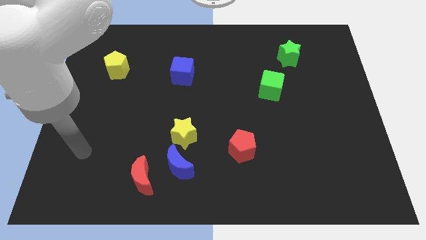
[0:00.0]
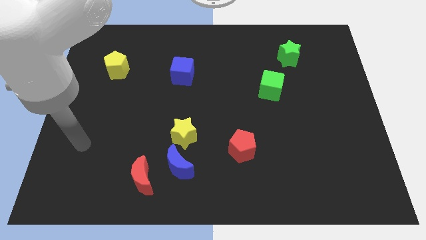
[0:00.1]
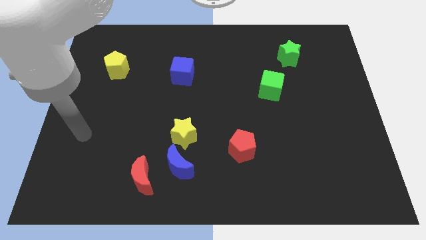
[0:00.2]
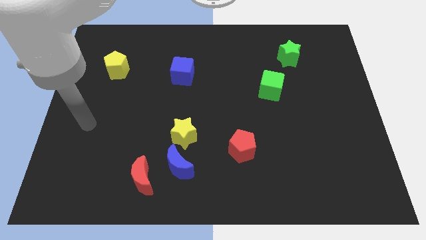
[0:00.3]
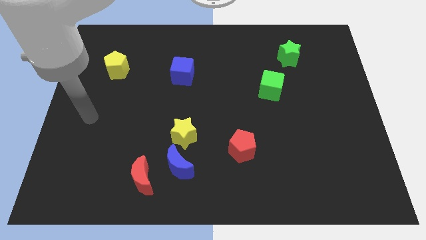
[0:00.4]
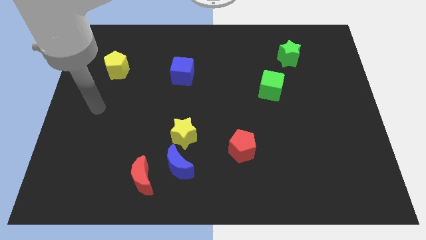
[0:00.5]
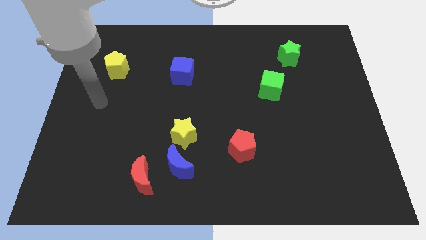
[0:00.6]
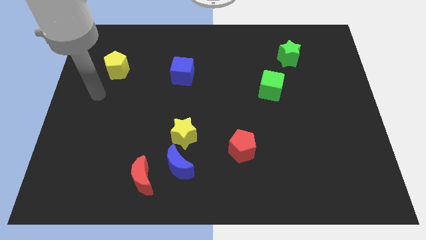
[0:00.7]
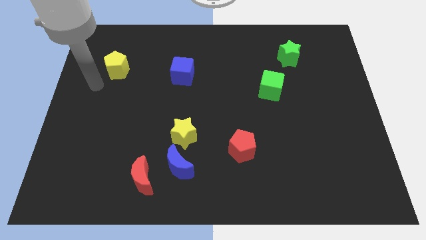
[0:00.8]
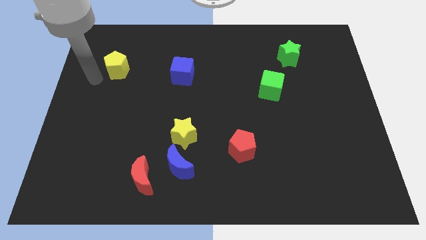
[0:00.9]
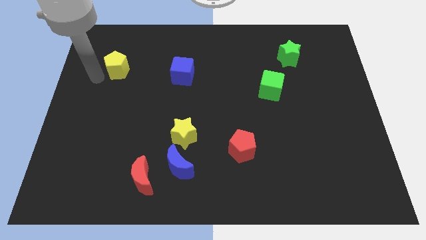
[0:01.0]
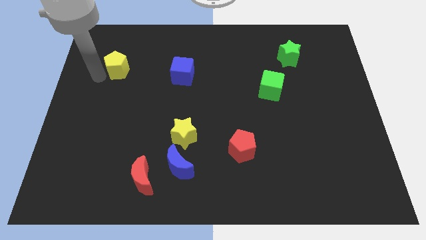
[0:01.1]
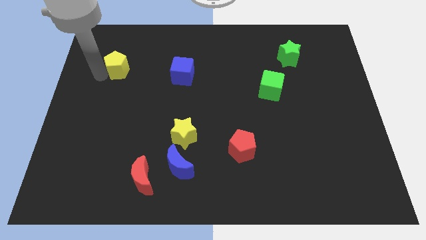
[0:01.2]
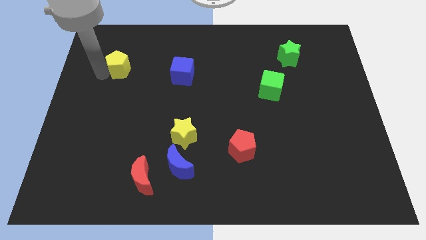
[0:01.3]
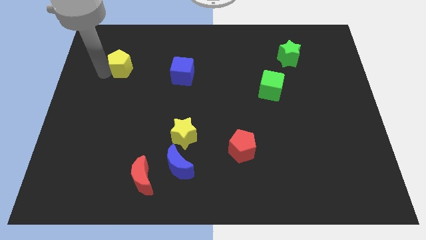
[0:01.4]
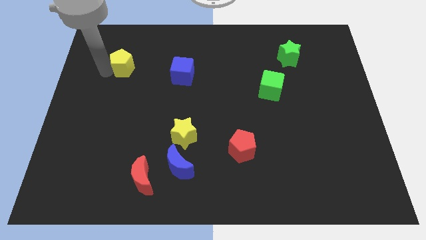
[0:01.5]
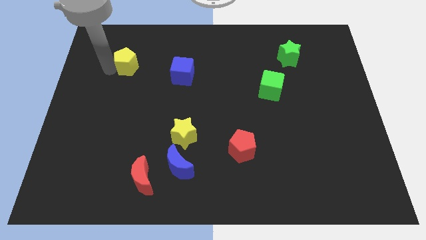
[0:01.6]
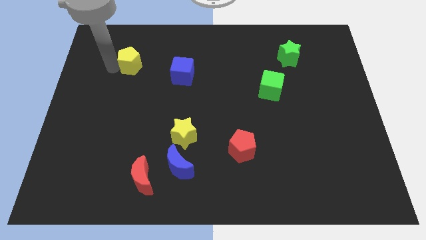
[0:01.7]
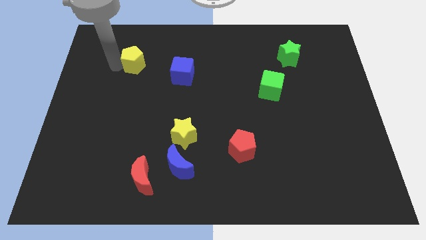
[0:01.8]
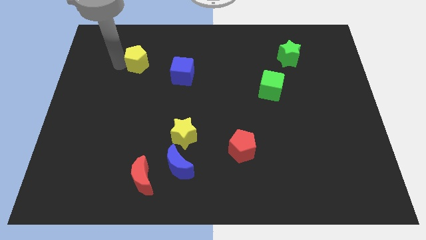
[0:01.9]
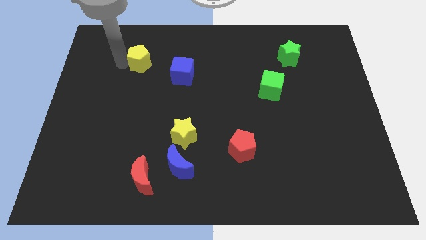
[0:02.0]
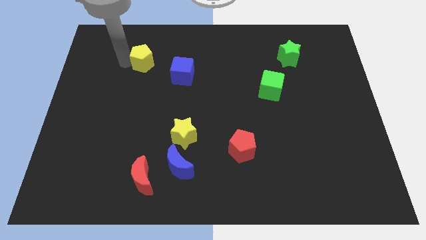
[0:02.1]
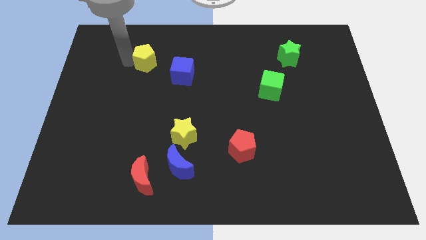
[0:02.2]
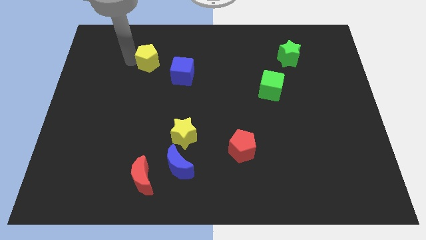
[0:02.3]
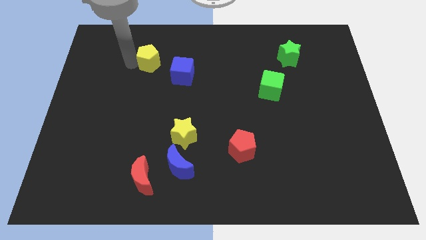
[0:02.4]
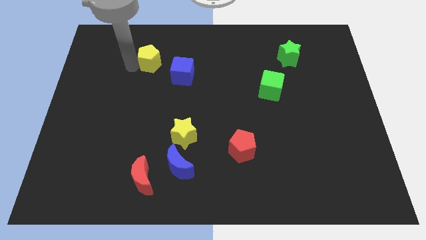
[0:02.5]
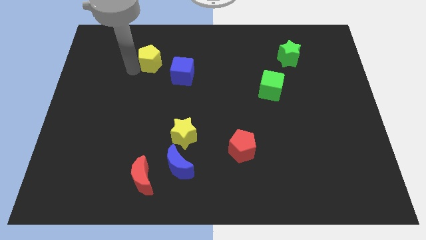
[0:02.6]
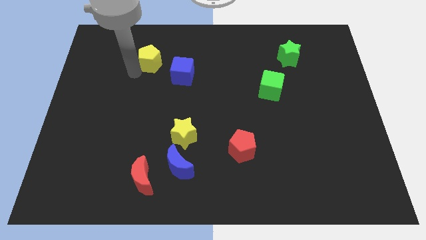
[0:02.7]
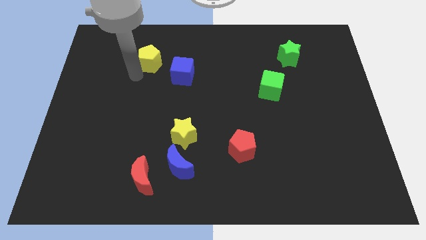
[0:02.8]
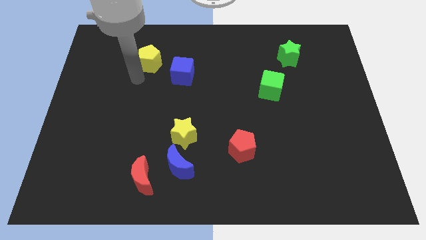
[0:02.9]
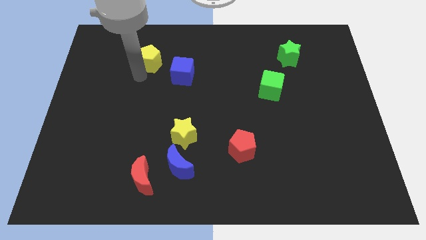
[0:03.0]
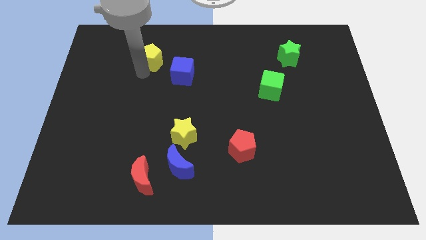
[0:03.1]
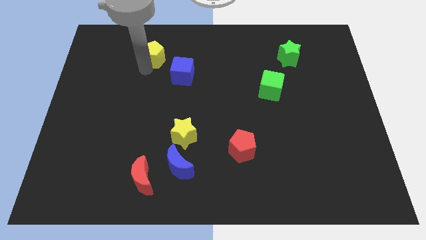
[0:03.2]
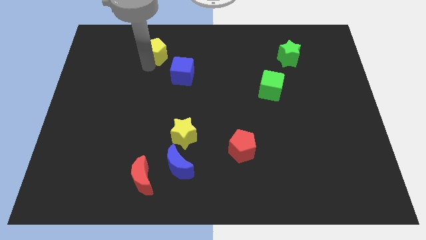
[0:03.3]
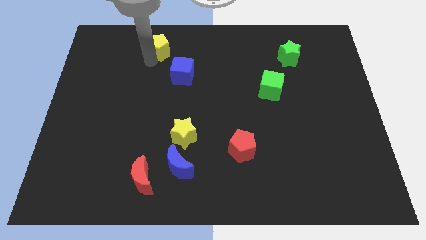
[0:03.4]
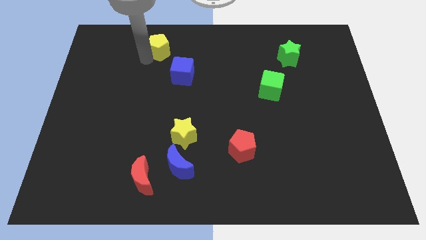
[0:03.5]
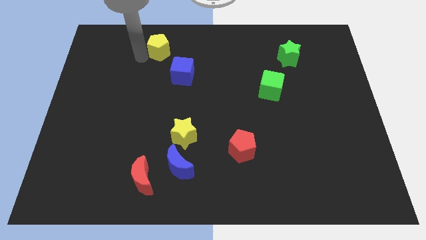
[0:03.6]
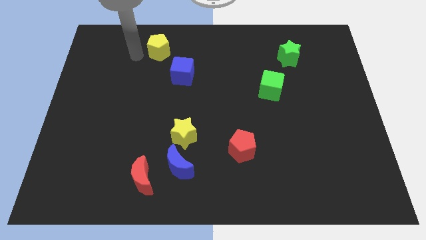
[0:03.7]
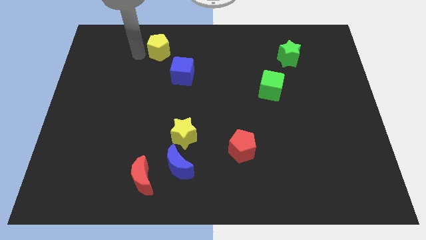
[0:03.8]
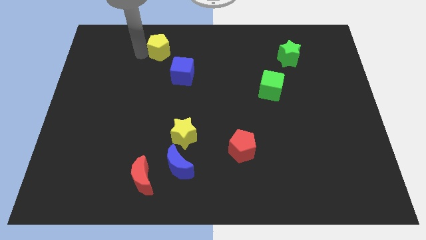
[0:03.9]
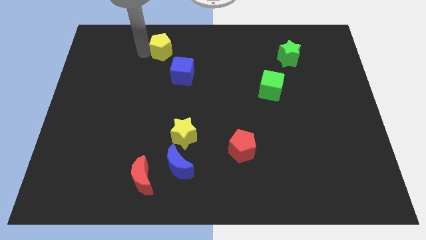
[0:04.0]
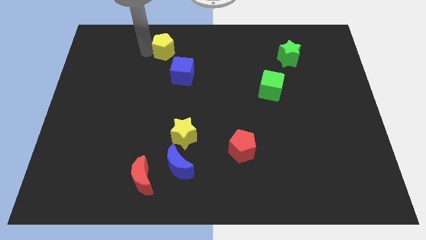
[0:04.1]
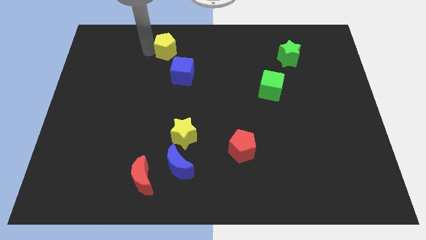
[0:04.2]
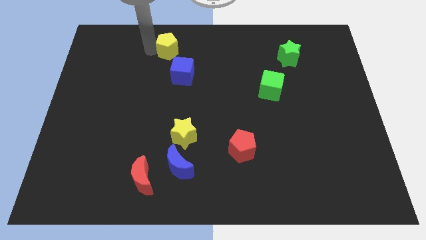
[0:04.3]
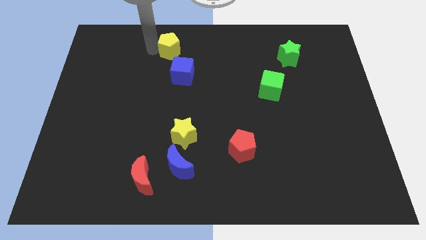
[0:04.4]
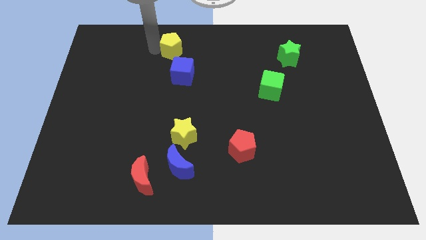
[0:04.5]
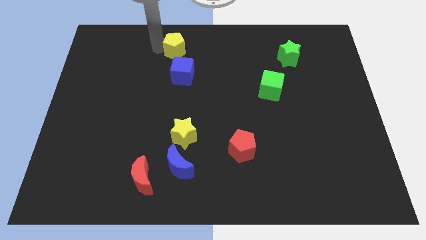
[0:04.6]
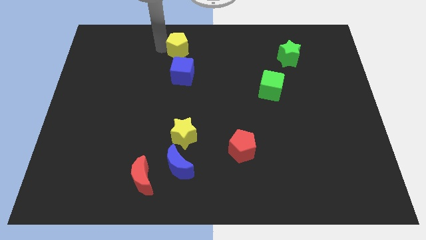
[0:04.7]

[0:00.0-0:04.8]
slide the yellow pentagon to the top side

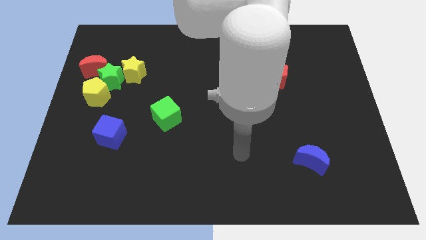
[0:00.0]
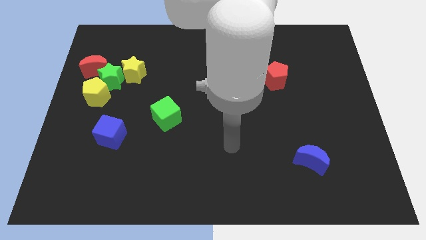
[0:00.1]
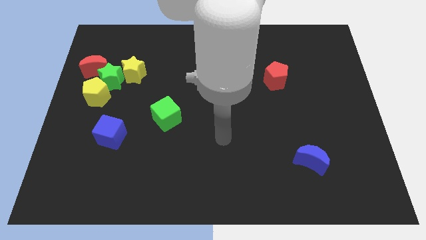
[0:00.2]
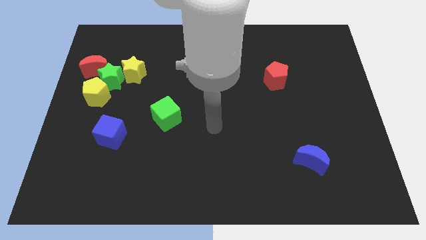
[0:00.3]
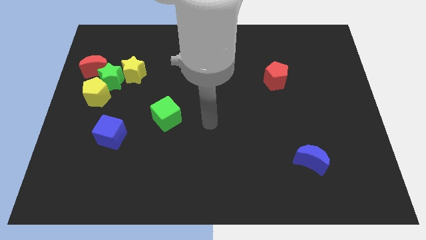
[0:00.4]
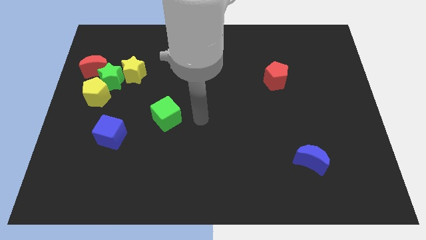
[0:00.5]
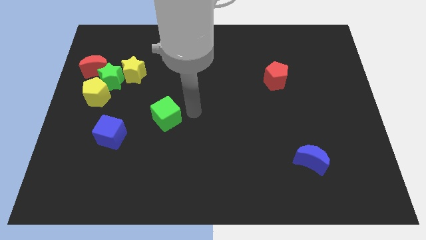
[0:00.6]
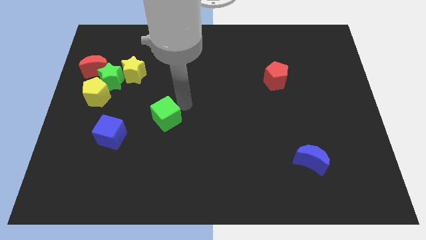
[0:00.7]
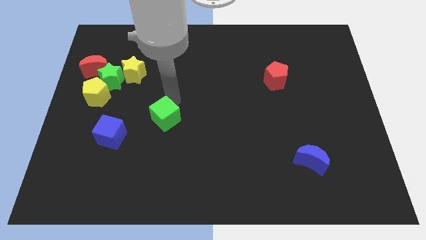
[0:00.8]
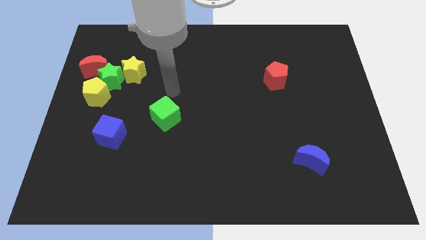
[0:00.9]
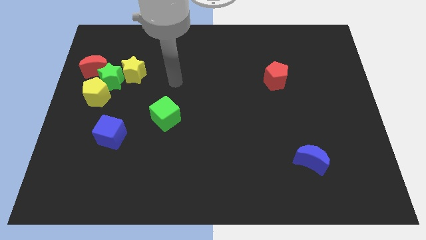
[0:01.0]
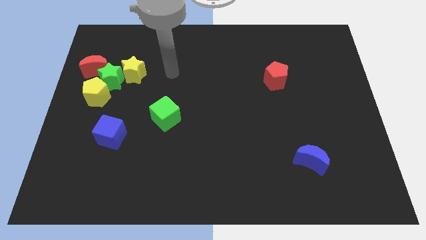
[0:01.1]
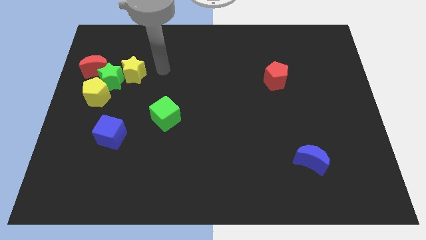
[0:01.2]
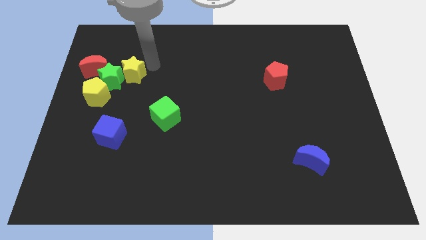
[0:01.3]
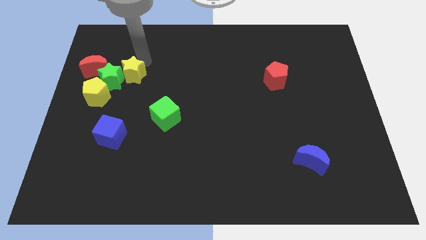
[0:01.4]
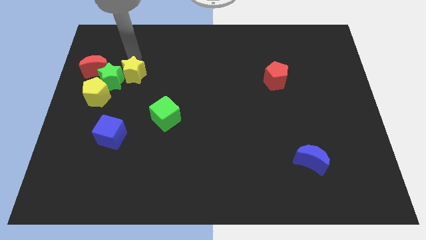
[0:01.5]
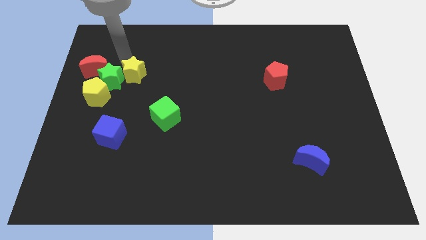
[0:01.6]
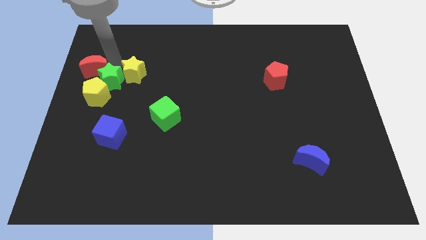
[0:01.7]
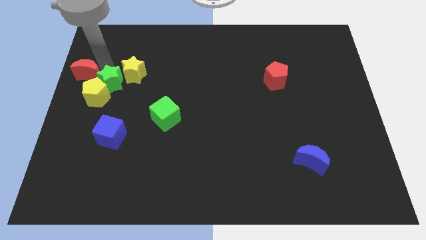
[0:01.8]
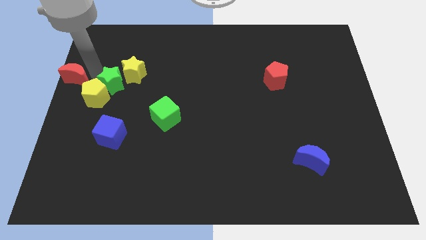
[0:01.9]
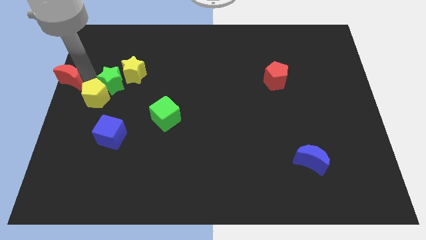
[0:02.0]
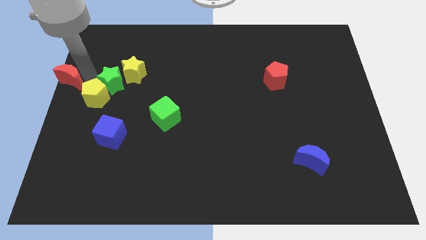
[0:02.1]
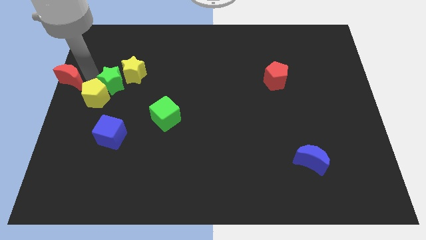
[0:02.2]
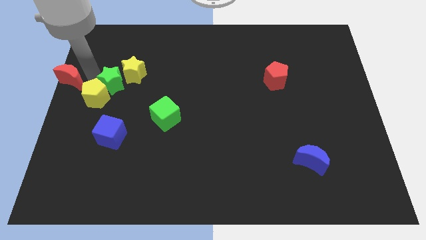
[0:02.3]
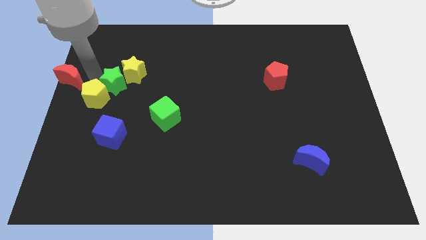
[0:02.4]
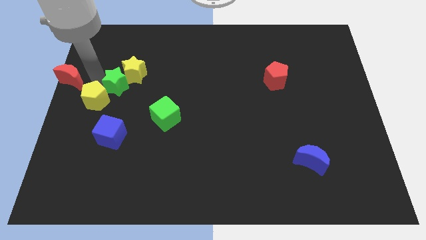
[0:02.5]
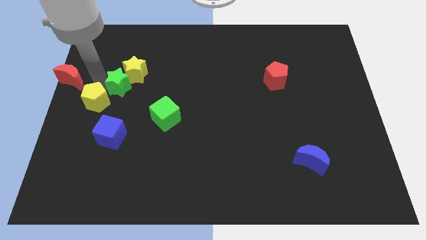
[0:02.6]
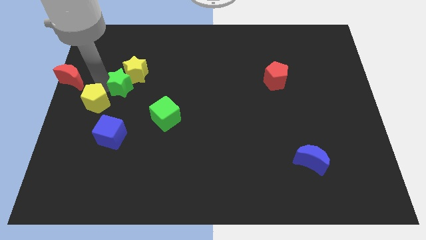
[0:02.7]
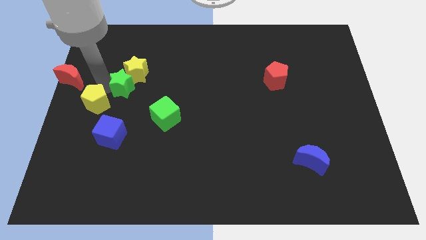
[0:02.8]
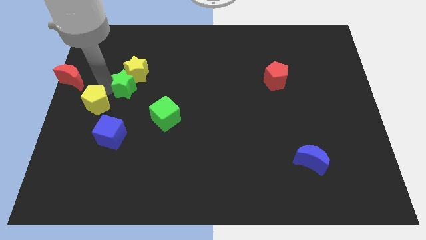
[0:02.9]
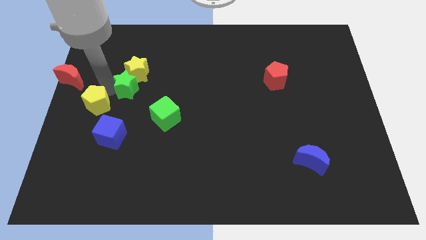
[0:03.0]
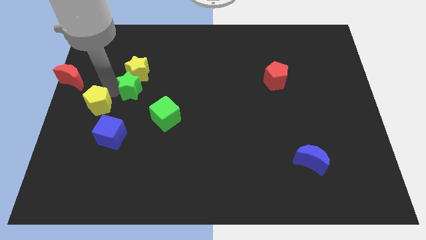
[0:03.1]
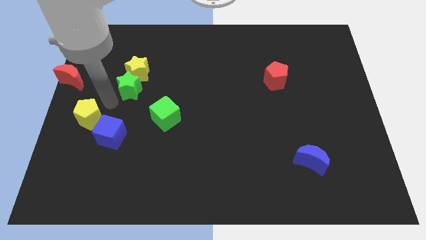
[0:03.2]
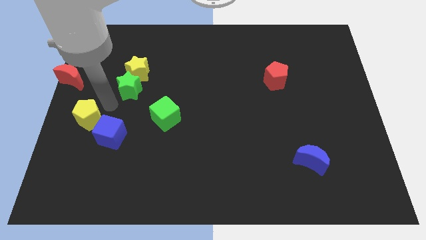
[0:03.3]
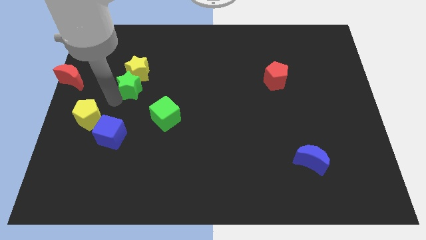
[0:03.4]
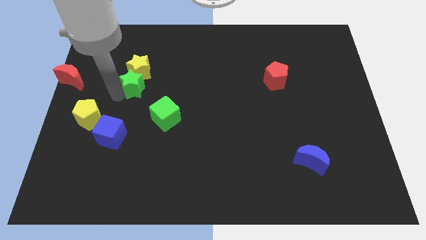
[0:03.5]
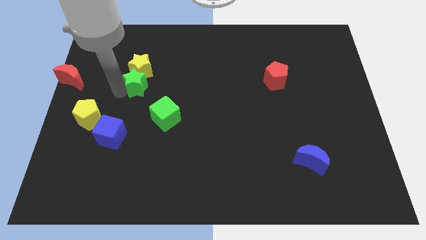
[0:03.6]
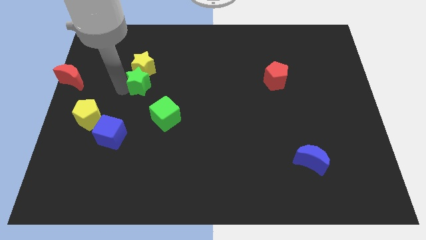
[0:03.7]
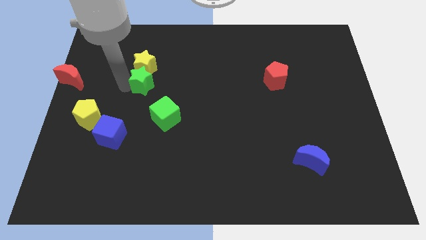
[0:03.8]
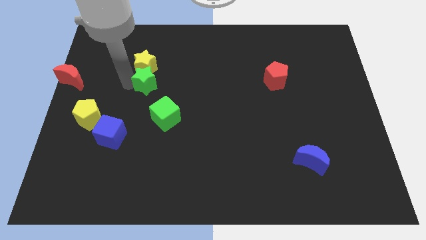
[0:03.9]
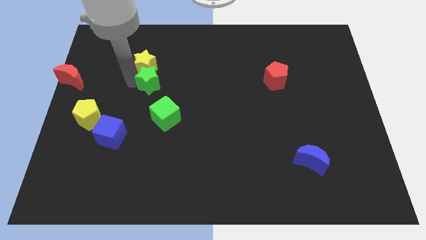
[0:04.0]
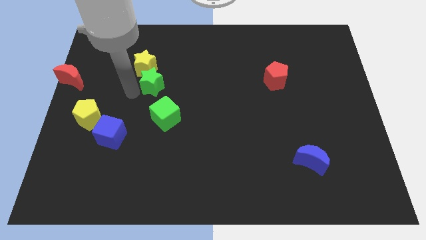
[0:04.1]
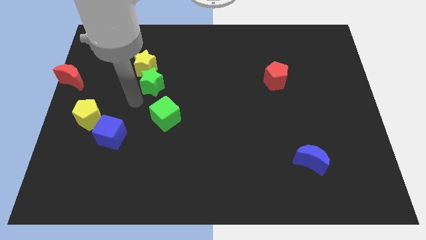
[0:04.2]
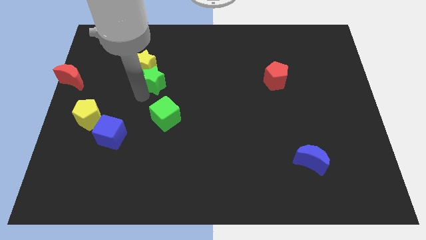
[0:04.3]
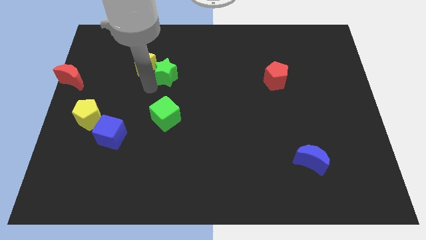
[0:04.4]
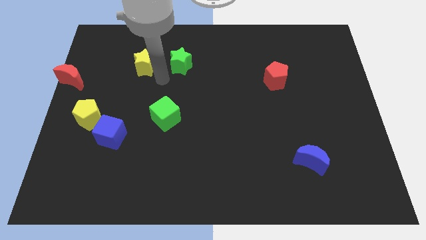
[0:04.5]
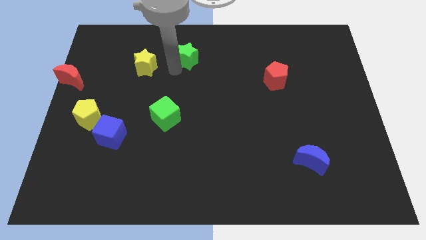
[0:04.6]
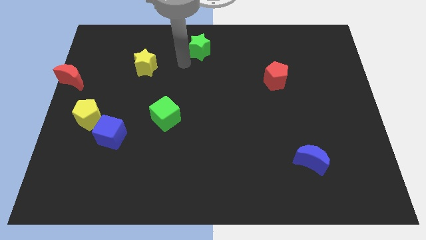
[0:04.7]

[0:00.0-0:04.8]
move the green star to the towards your base
